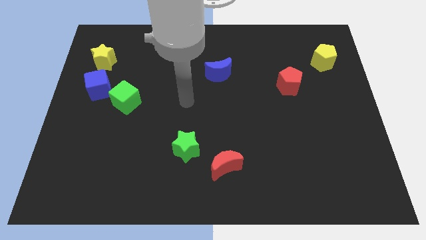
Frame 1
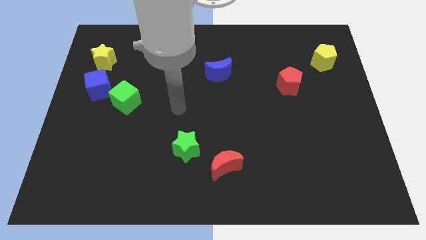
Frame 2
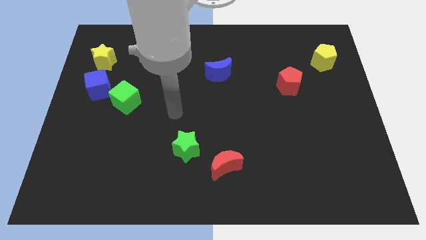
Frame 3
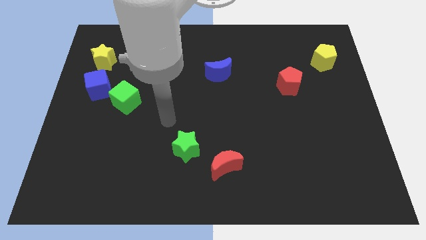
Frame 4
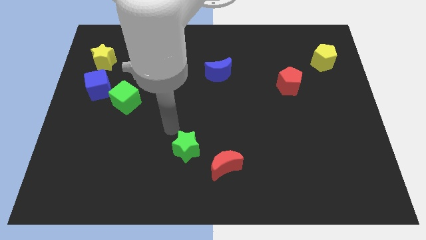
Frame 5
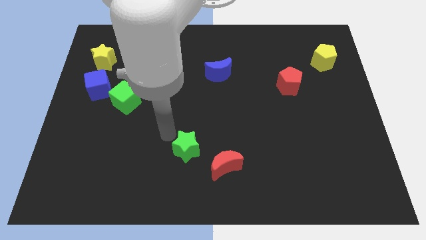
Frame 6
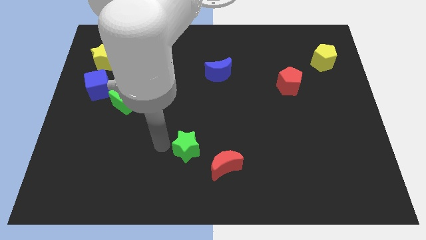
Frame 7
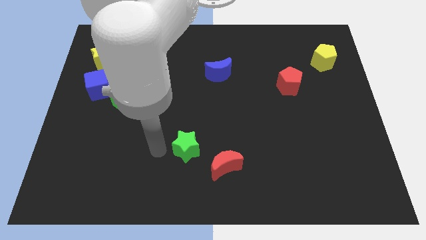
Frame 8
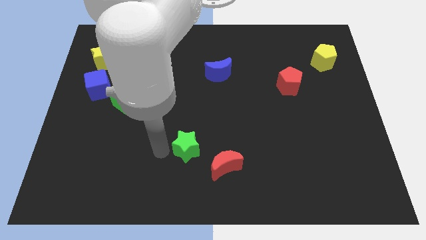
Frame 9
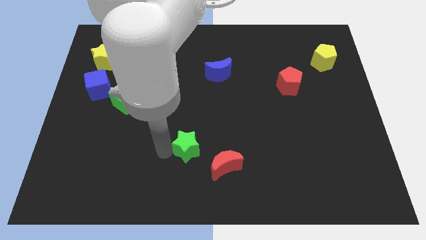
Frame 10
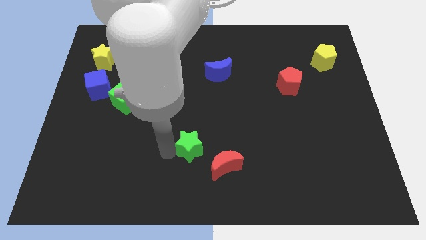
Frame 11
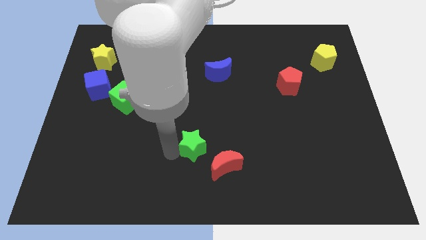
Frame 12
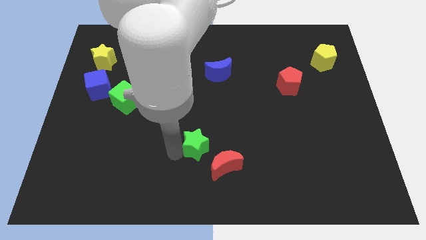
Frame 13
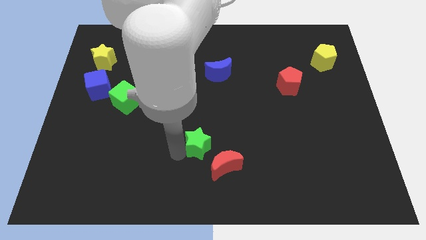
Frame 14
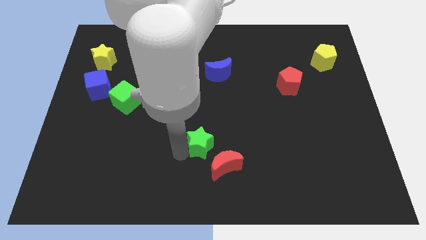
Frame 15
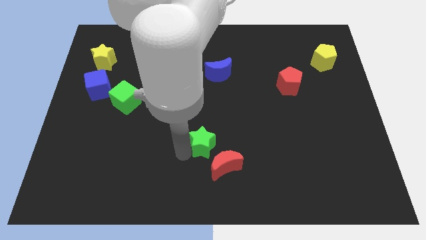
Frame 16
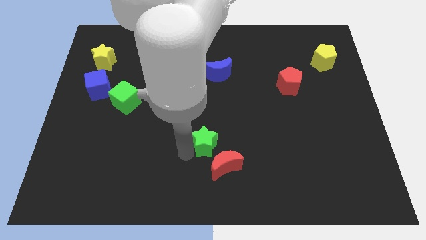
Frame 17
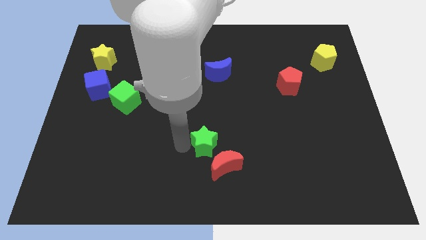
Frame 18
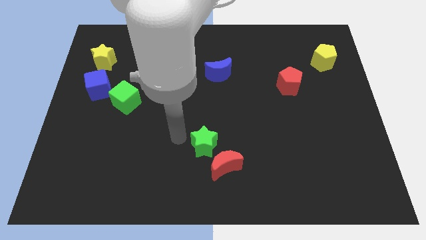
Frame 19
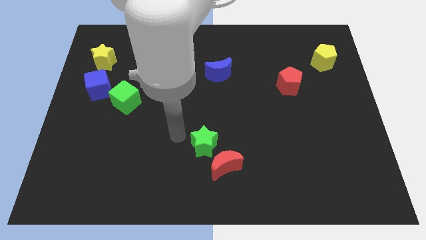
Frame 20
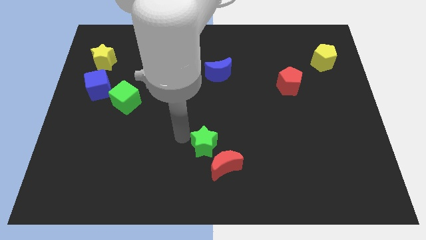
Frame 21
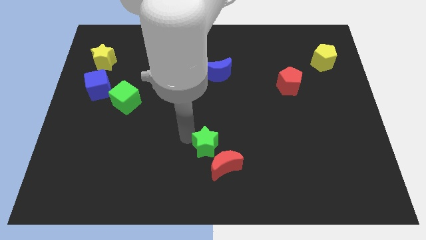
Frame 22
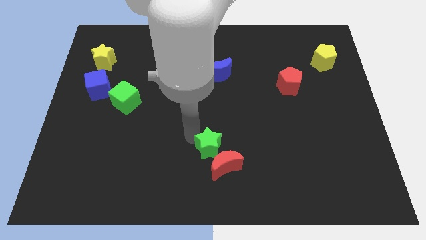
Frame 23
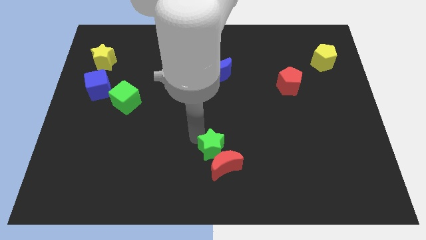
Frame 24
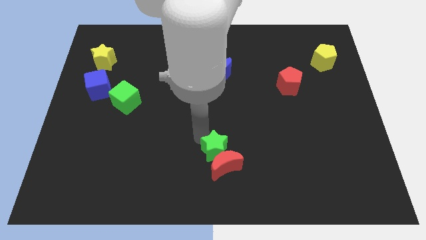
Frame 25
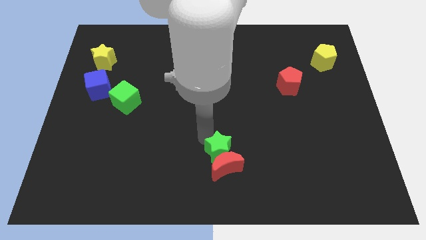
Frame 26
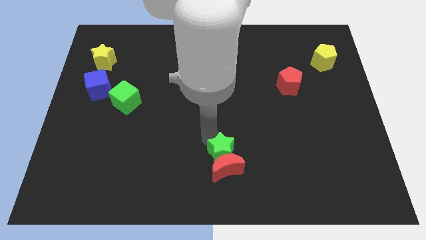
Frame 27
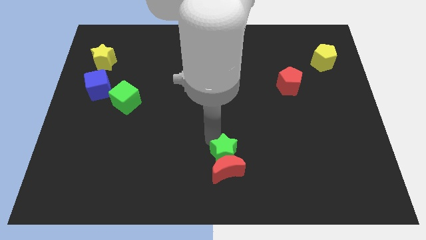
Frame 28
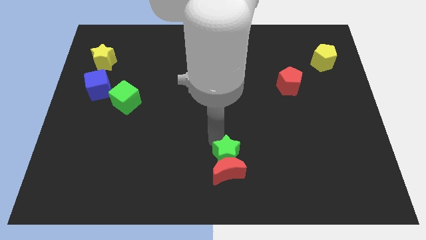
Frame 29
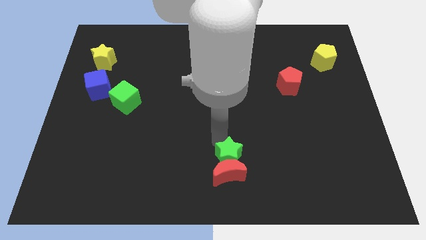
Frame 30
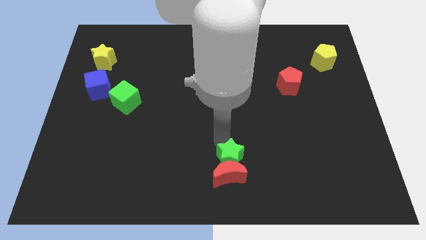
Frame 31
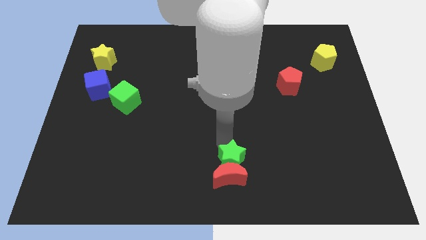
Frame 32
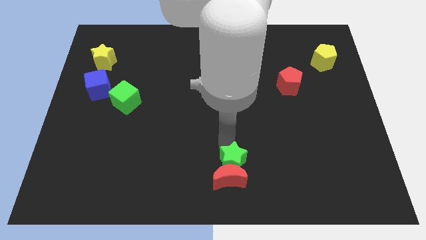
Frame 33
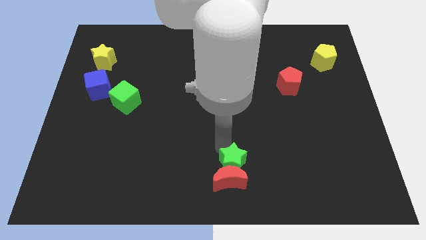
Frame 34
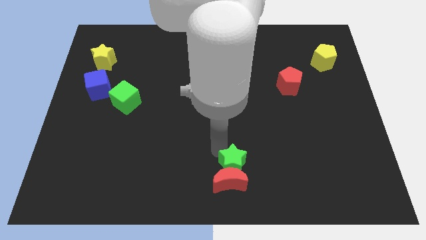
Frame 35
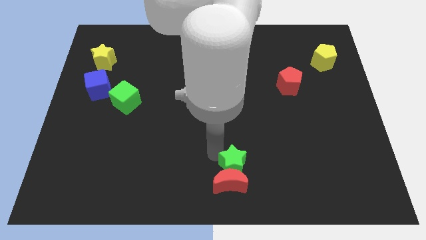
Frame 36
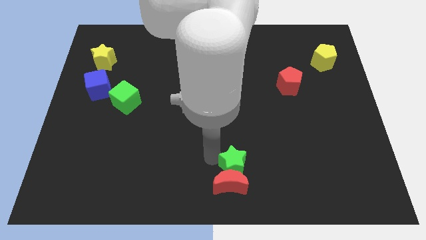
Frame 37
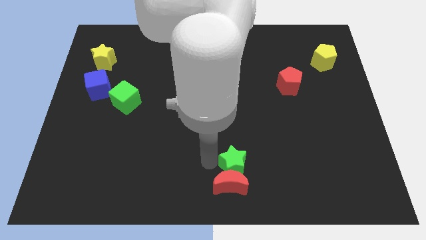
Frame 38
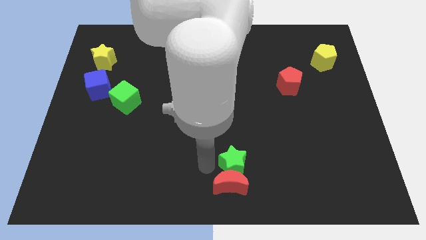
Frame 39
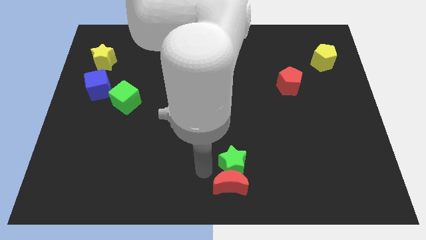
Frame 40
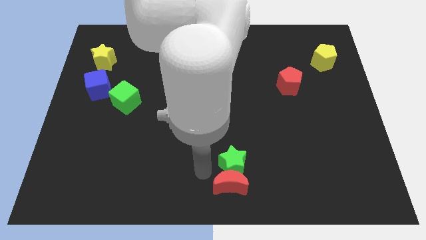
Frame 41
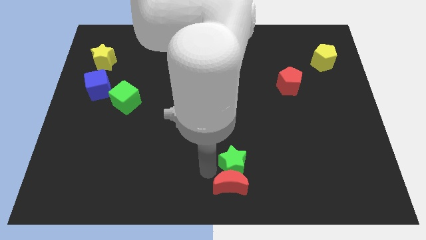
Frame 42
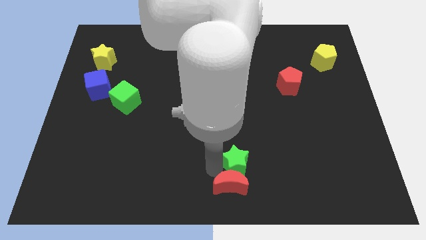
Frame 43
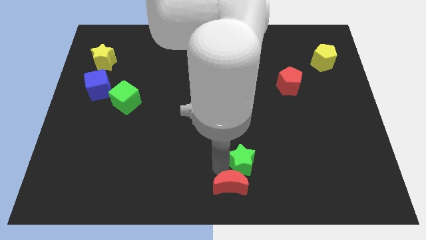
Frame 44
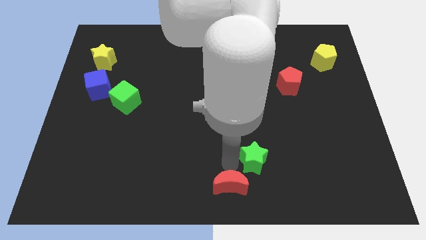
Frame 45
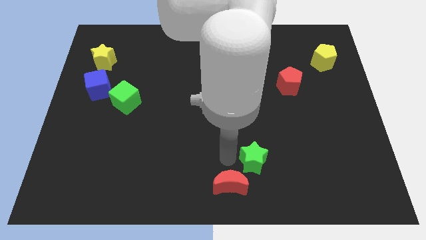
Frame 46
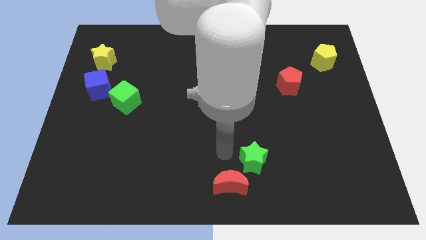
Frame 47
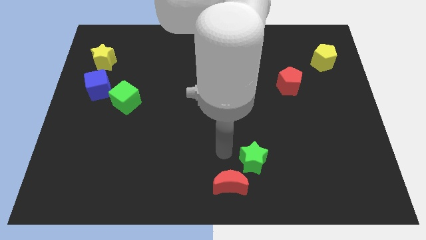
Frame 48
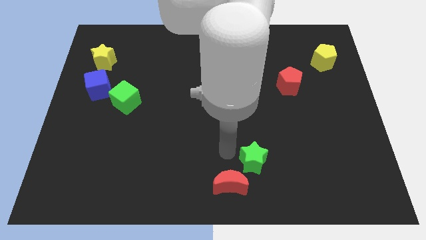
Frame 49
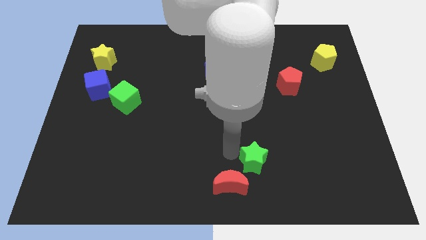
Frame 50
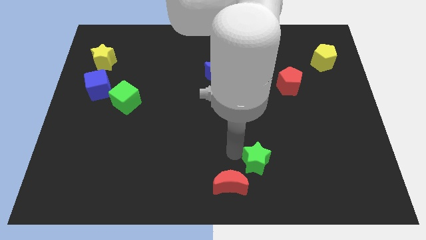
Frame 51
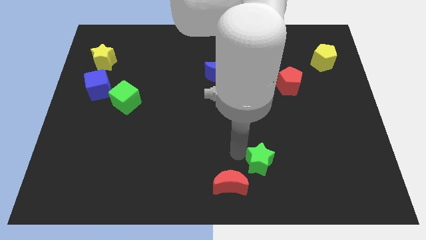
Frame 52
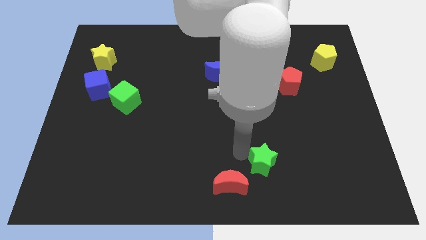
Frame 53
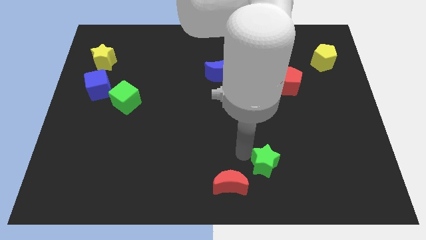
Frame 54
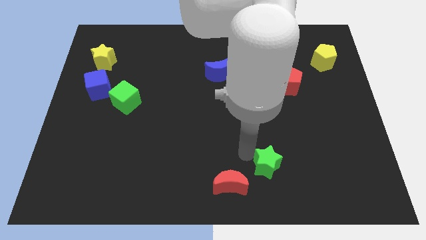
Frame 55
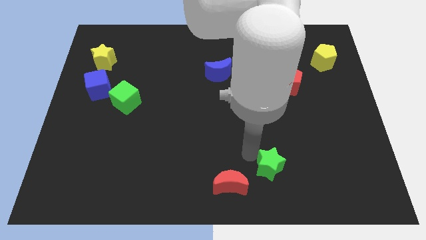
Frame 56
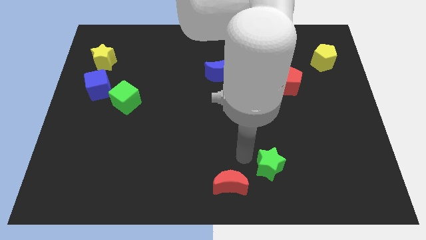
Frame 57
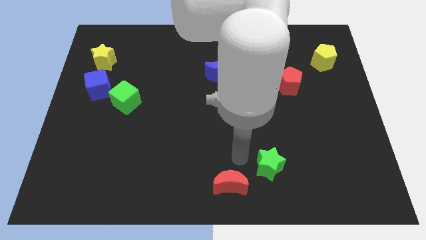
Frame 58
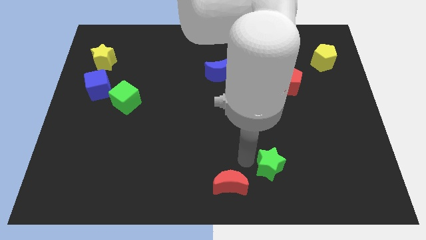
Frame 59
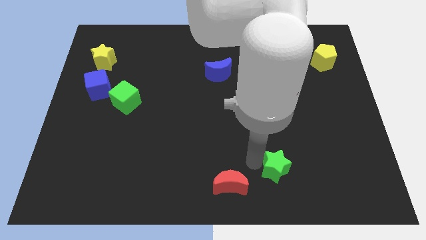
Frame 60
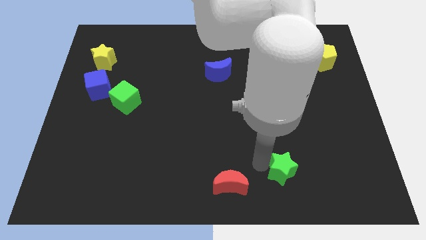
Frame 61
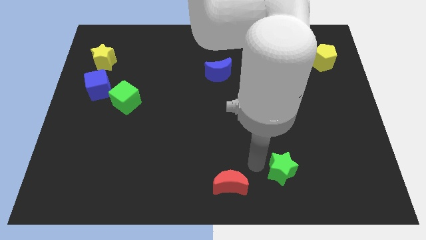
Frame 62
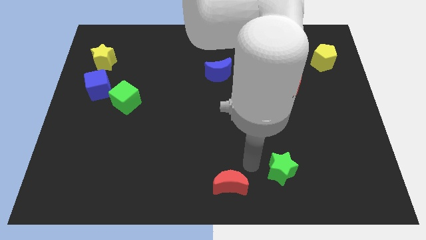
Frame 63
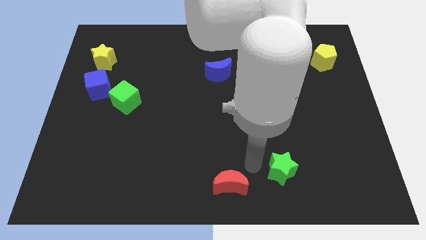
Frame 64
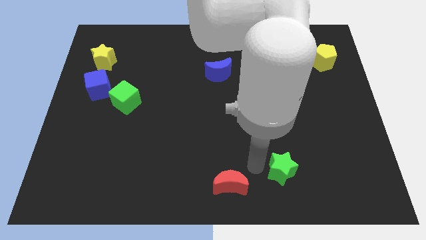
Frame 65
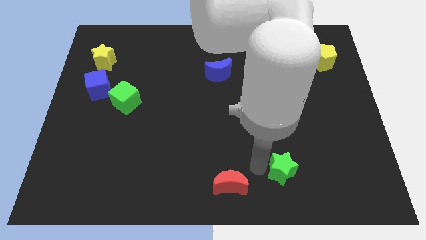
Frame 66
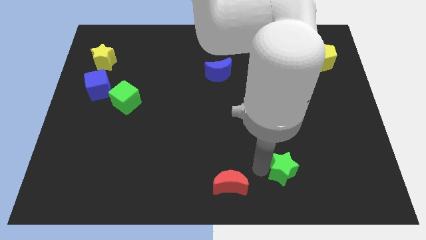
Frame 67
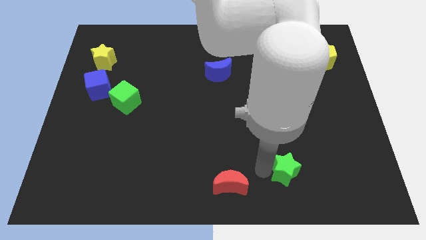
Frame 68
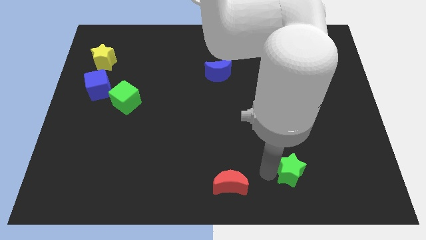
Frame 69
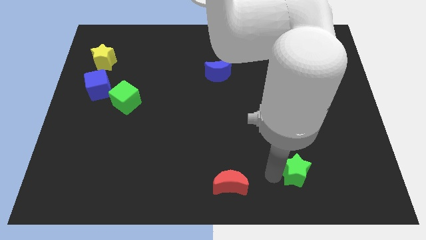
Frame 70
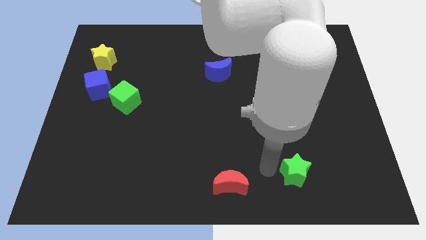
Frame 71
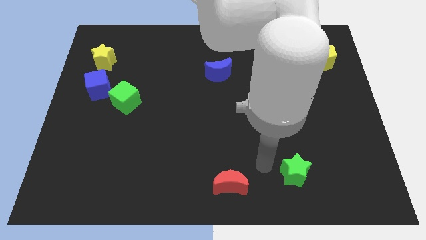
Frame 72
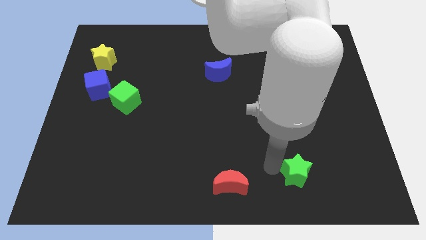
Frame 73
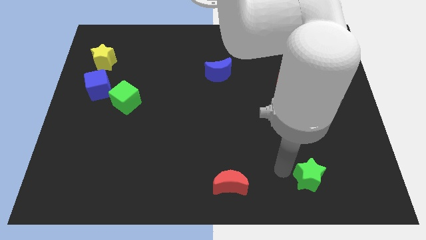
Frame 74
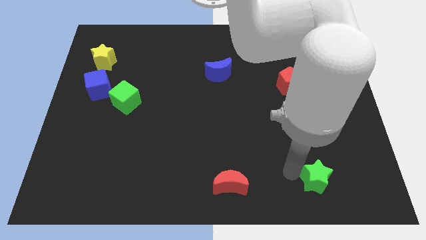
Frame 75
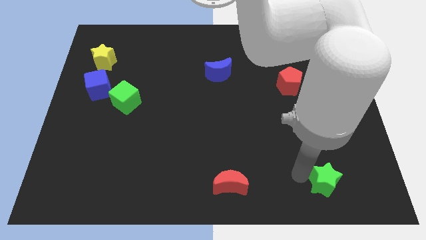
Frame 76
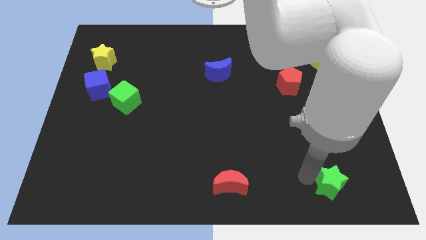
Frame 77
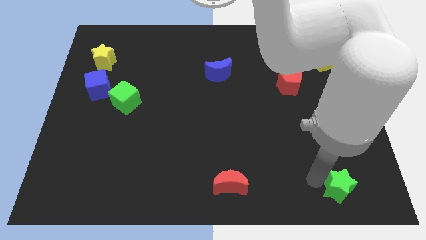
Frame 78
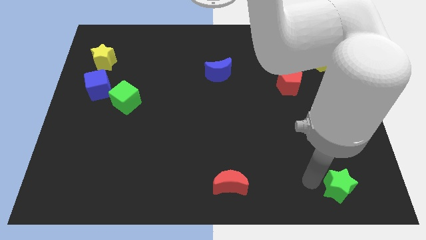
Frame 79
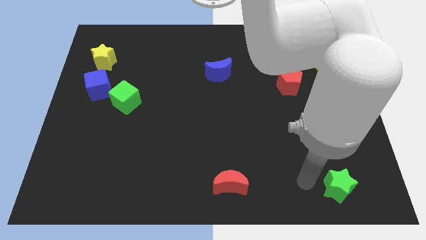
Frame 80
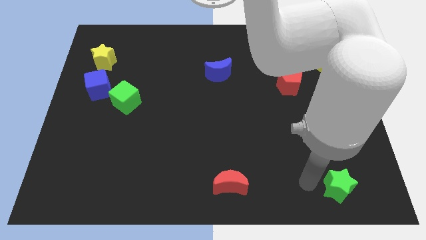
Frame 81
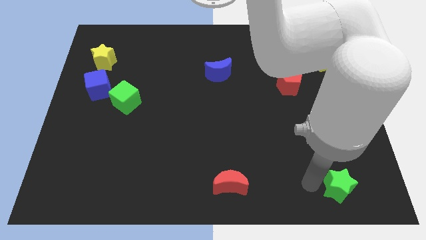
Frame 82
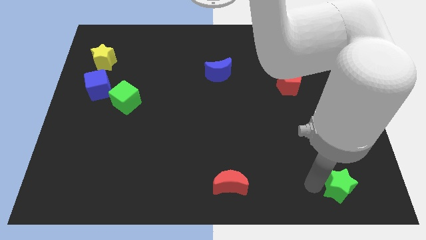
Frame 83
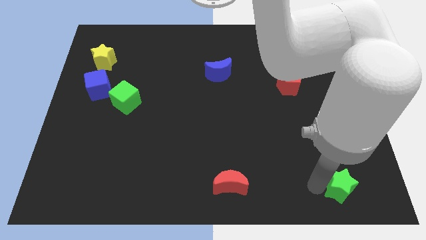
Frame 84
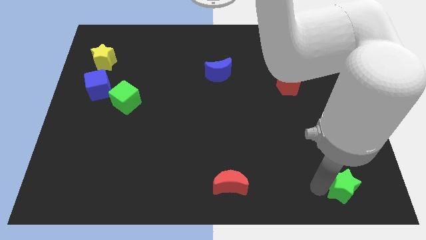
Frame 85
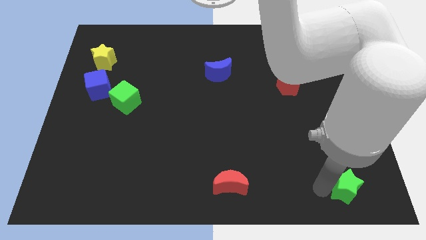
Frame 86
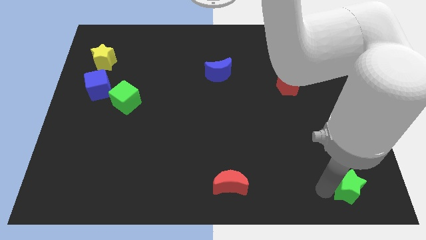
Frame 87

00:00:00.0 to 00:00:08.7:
put the green star to the lower right corner
